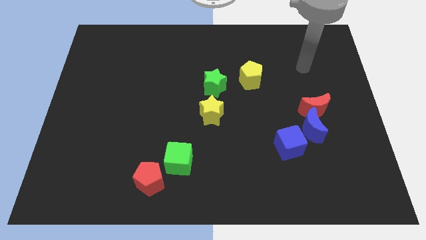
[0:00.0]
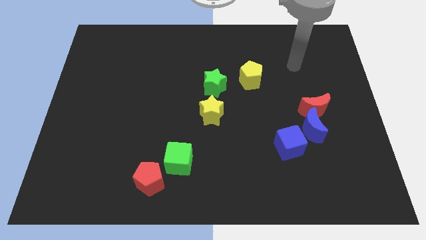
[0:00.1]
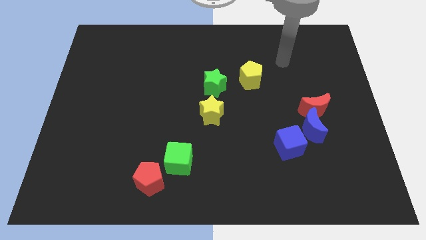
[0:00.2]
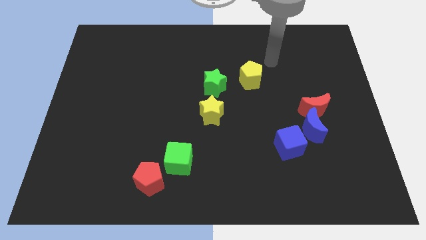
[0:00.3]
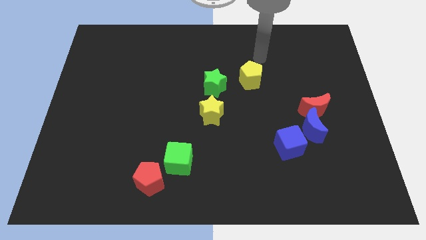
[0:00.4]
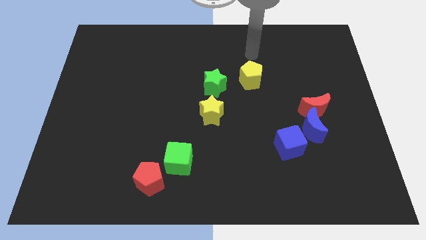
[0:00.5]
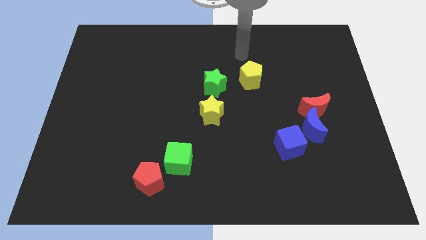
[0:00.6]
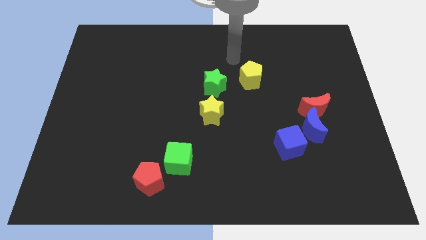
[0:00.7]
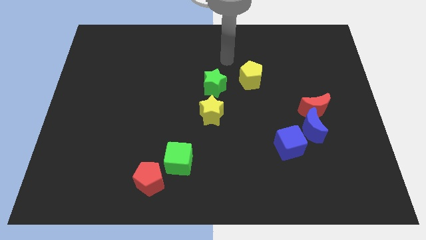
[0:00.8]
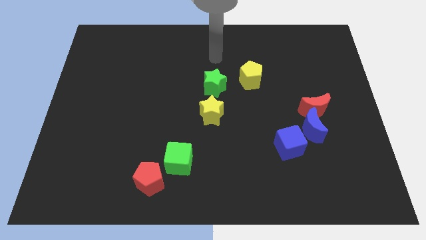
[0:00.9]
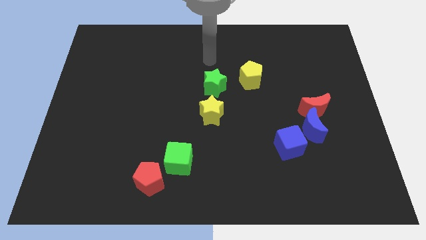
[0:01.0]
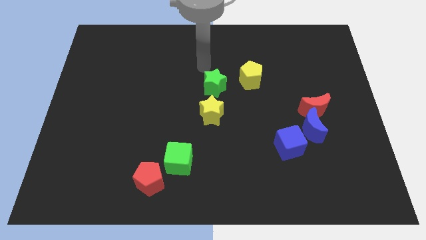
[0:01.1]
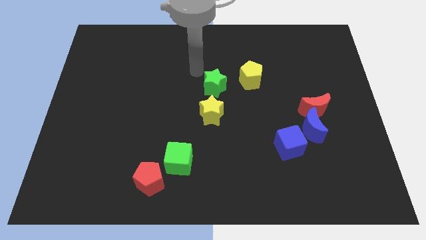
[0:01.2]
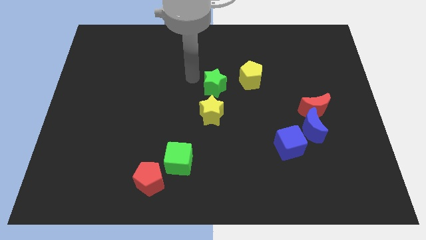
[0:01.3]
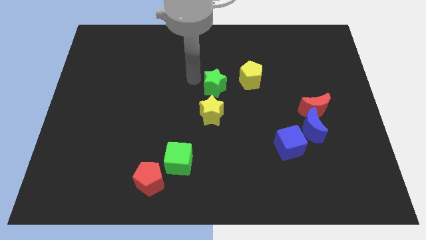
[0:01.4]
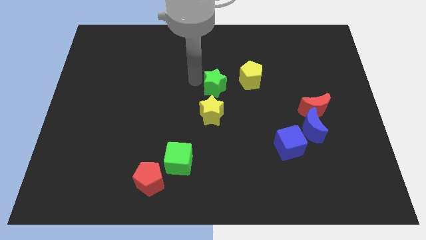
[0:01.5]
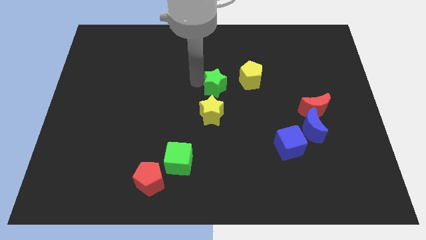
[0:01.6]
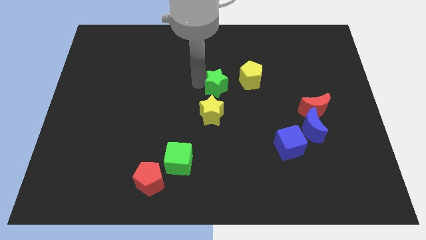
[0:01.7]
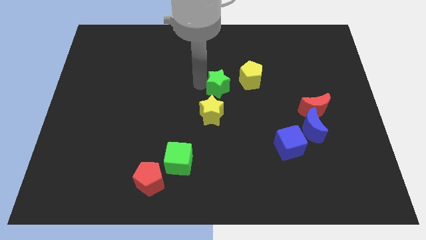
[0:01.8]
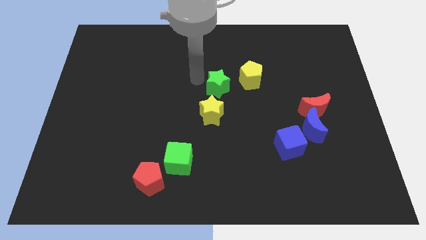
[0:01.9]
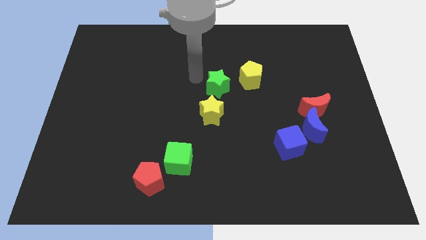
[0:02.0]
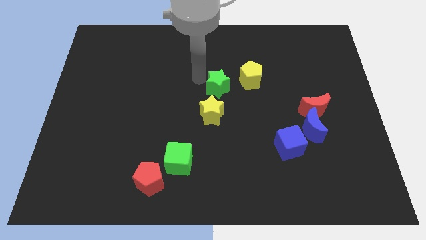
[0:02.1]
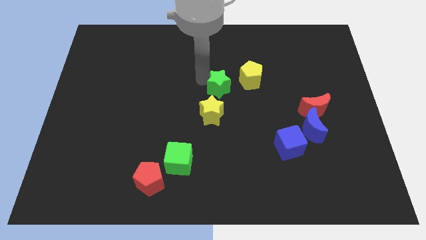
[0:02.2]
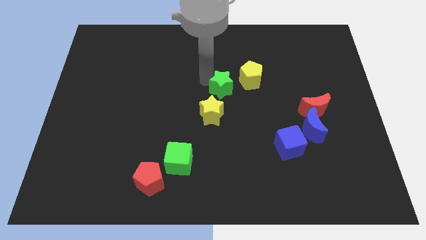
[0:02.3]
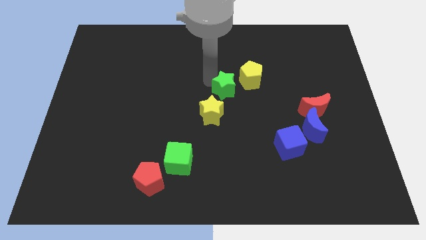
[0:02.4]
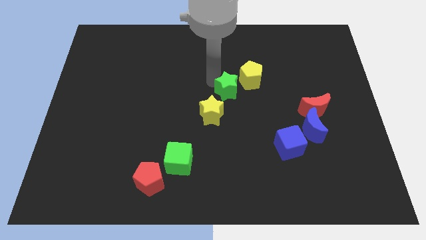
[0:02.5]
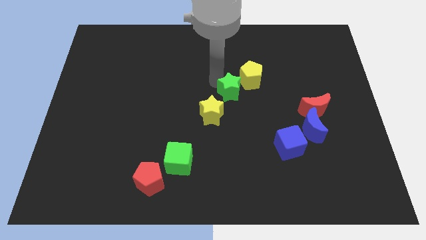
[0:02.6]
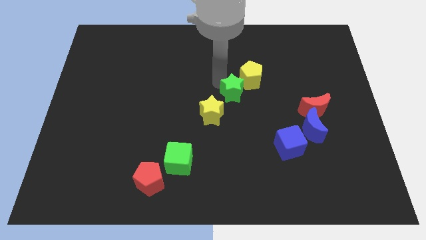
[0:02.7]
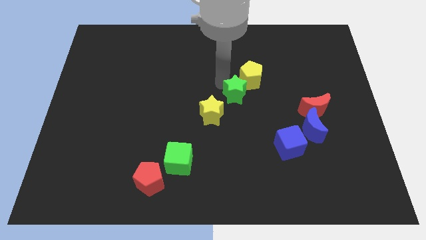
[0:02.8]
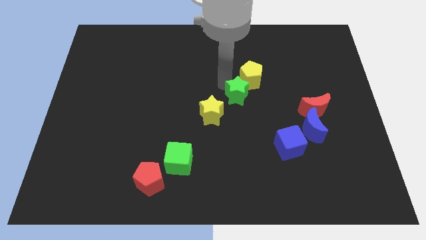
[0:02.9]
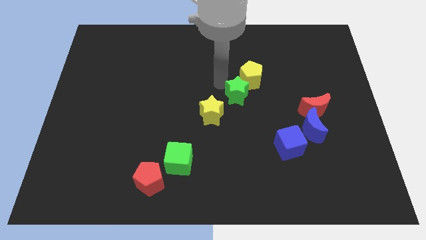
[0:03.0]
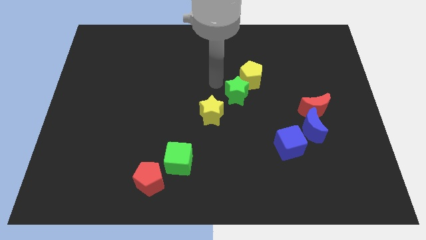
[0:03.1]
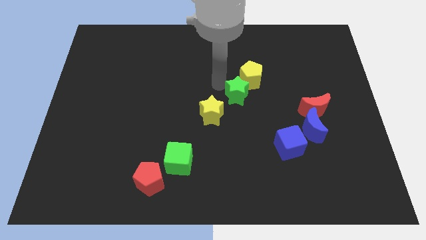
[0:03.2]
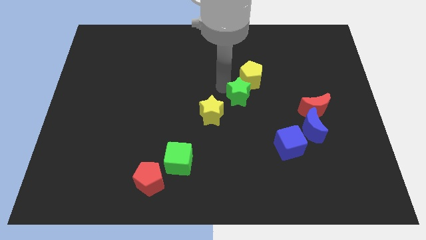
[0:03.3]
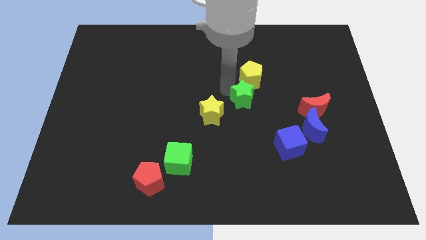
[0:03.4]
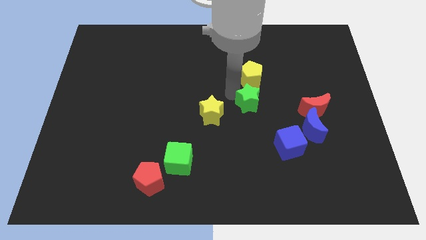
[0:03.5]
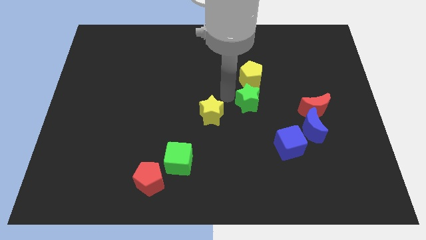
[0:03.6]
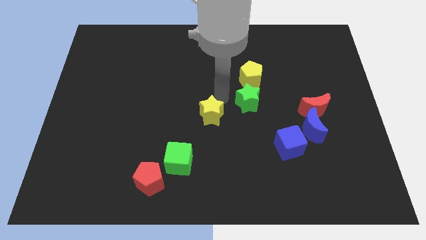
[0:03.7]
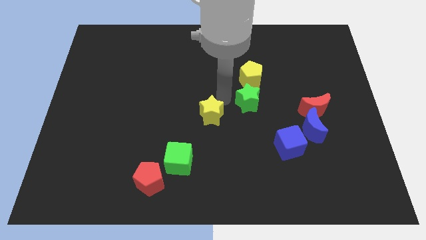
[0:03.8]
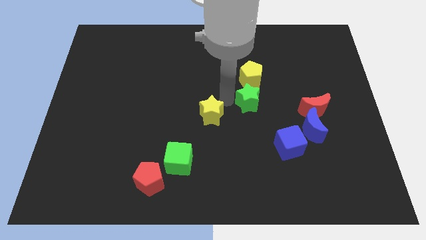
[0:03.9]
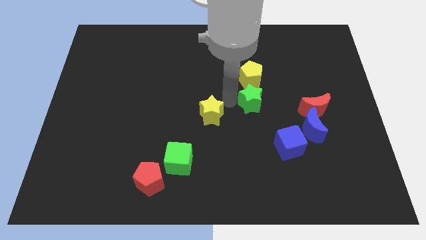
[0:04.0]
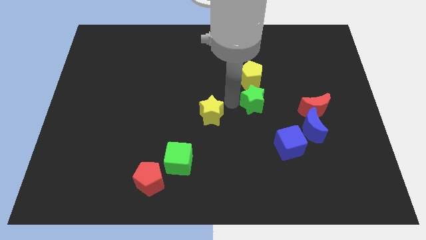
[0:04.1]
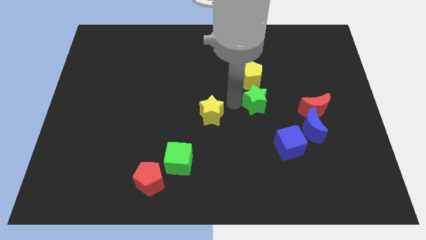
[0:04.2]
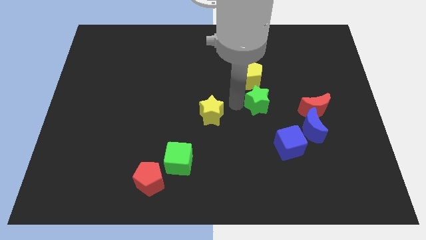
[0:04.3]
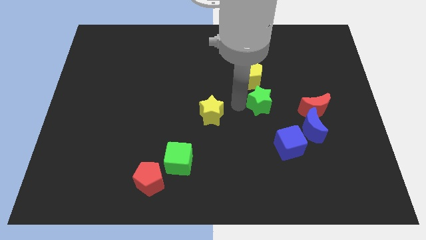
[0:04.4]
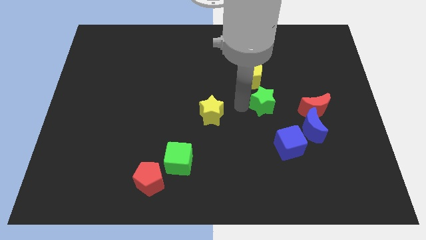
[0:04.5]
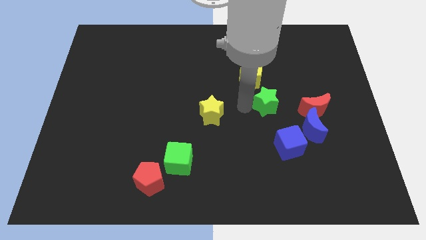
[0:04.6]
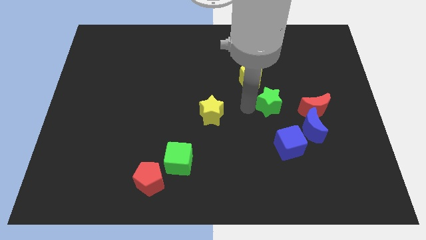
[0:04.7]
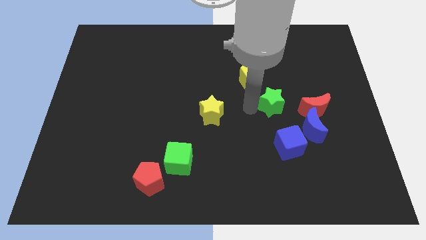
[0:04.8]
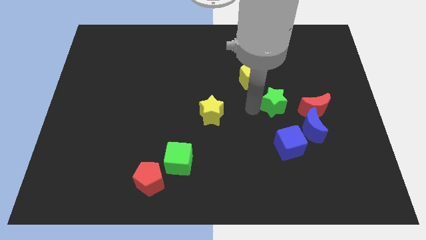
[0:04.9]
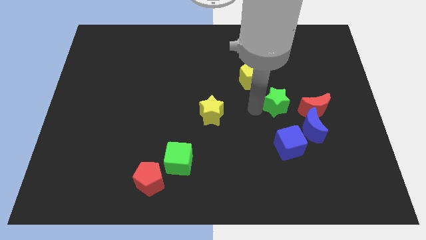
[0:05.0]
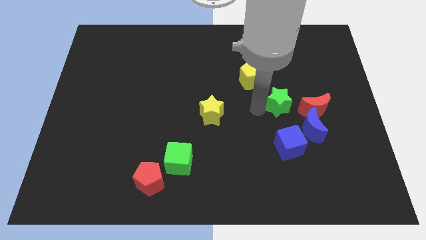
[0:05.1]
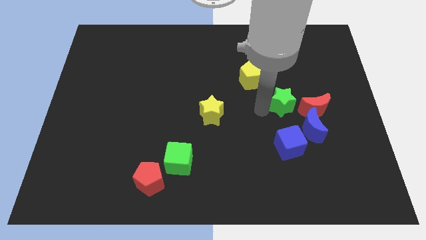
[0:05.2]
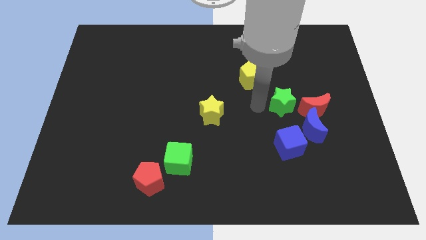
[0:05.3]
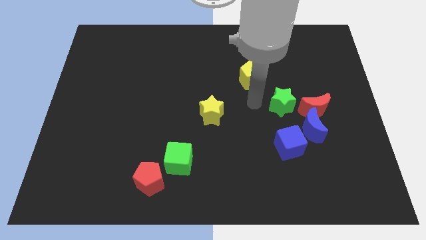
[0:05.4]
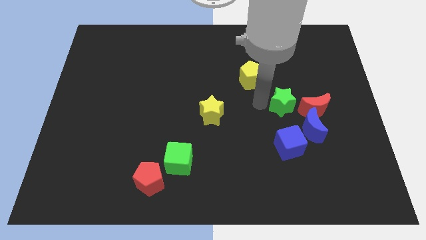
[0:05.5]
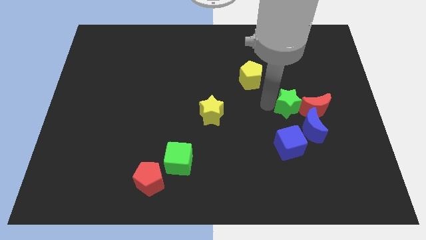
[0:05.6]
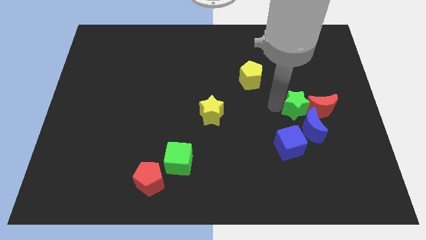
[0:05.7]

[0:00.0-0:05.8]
move the green star to the red moon

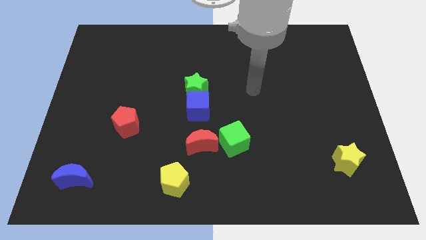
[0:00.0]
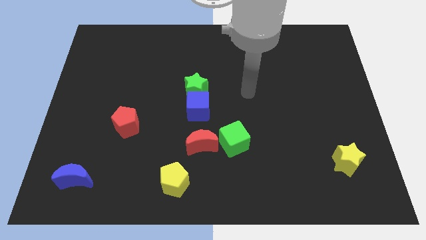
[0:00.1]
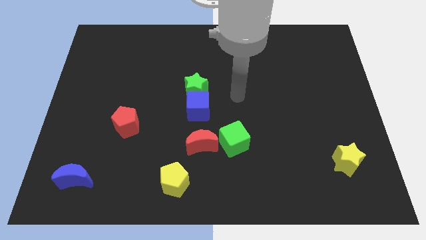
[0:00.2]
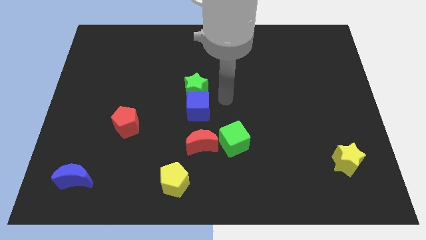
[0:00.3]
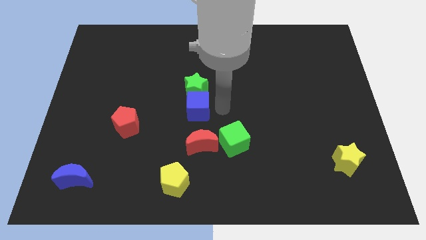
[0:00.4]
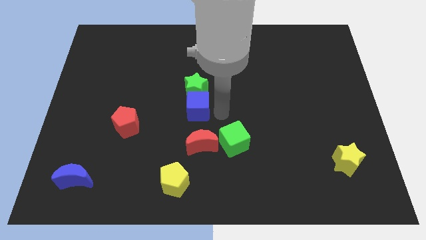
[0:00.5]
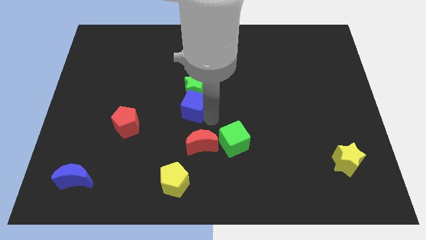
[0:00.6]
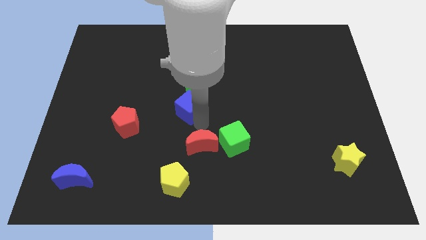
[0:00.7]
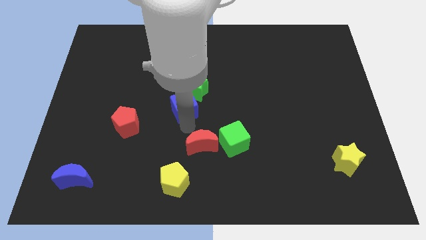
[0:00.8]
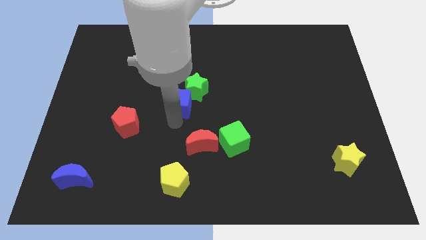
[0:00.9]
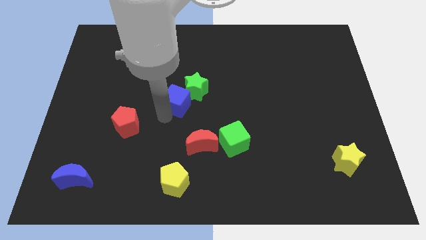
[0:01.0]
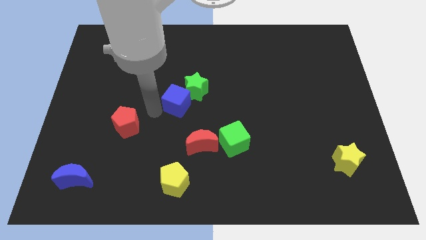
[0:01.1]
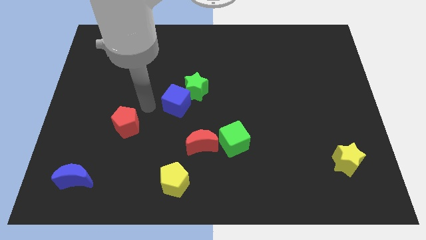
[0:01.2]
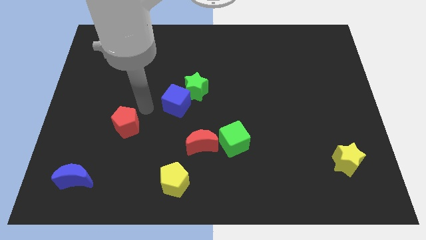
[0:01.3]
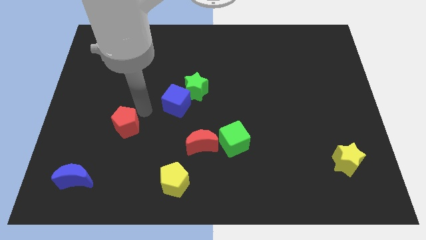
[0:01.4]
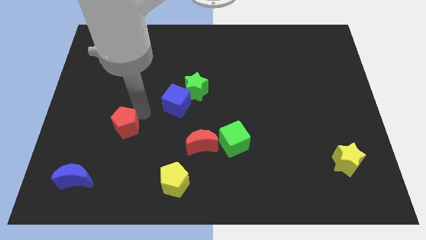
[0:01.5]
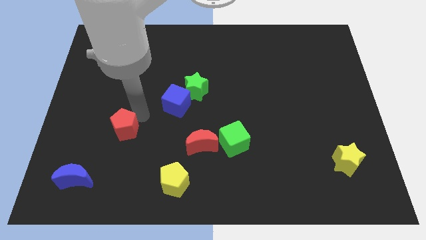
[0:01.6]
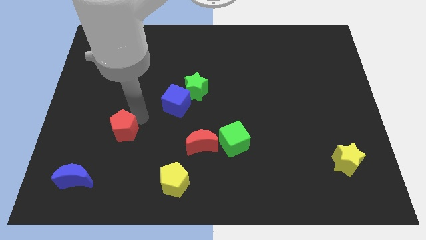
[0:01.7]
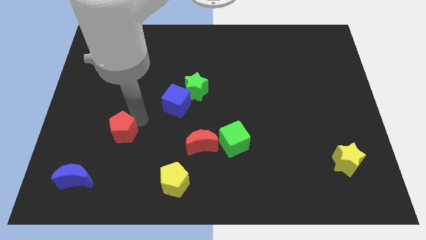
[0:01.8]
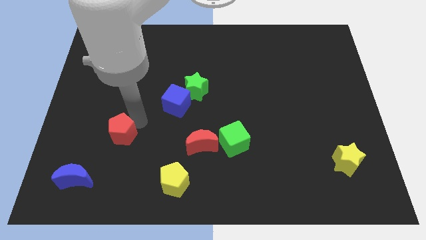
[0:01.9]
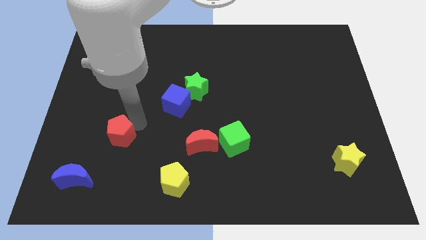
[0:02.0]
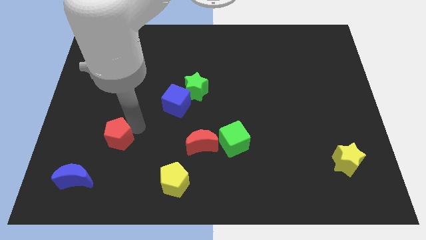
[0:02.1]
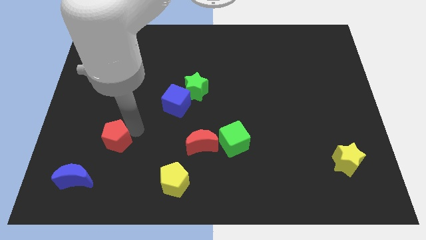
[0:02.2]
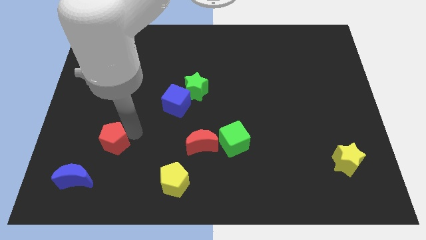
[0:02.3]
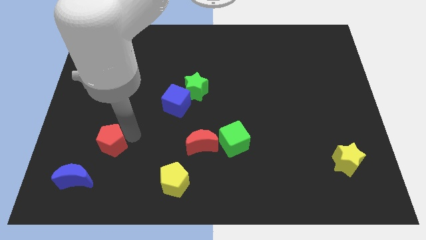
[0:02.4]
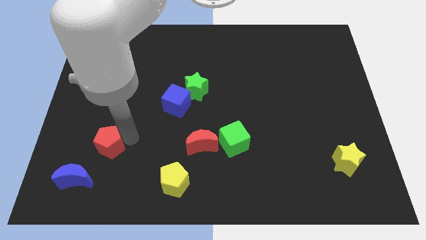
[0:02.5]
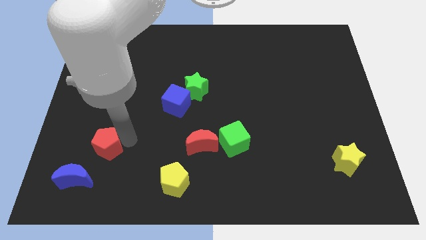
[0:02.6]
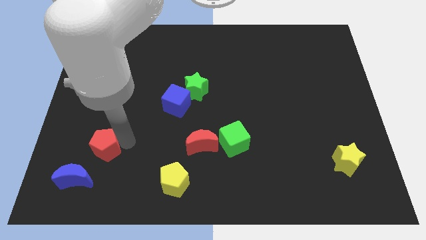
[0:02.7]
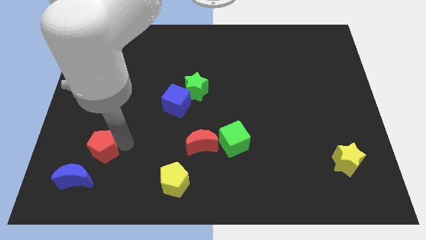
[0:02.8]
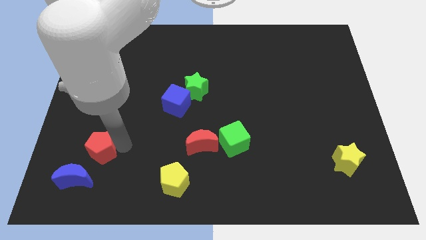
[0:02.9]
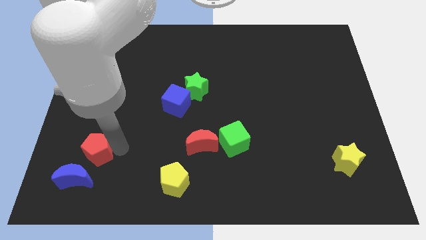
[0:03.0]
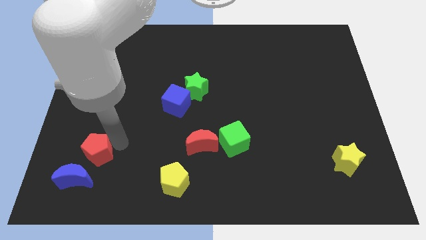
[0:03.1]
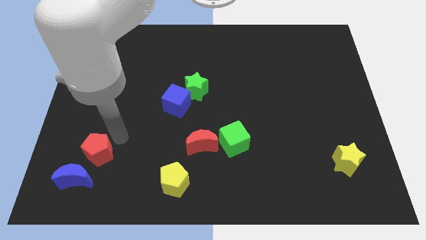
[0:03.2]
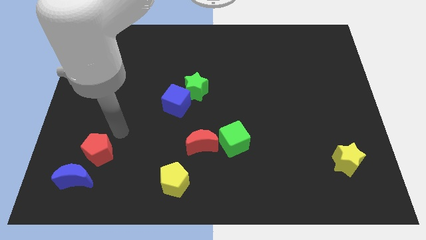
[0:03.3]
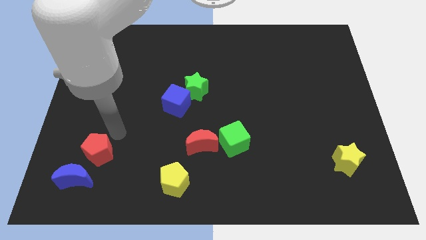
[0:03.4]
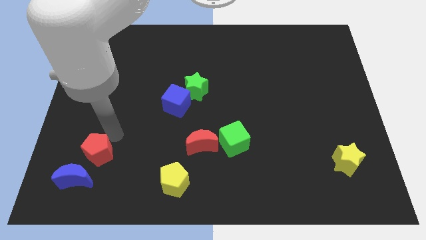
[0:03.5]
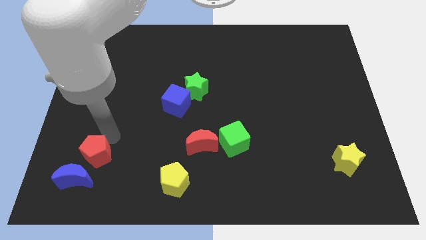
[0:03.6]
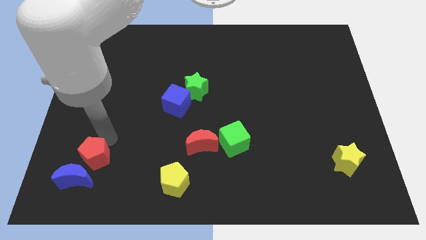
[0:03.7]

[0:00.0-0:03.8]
move the red pentagon to the blue moon
